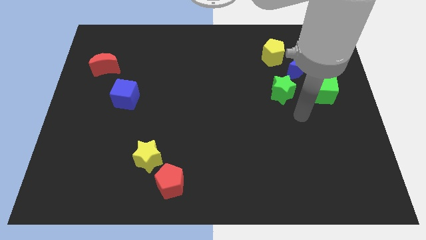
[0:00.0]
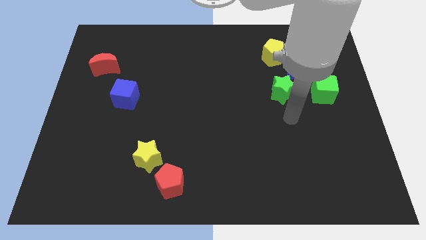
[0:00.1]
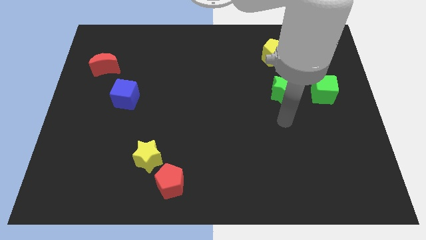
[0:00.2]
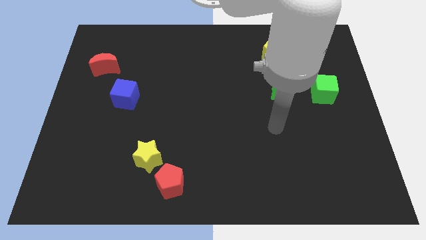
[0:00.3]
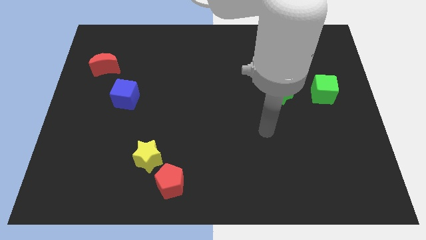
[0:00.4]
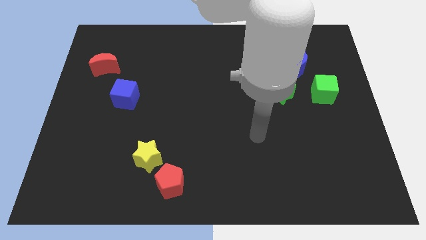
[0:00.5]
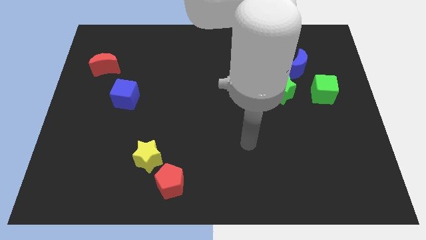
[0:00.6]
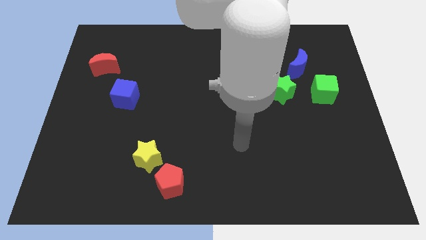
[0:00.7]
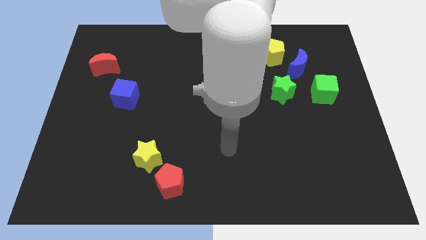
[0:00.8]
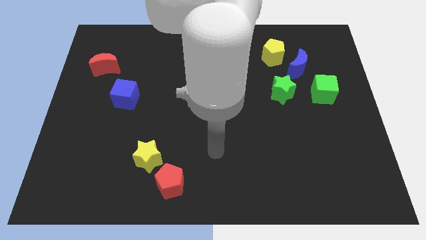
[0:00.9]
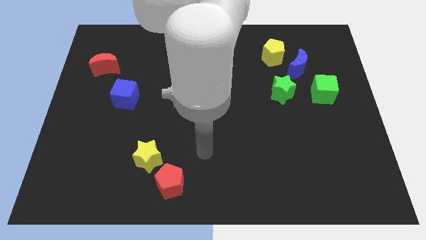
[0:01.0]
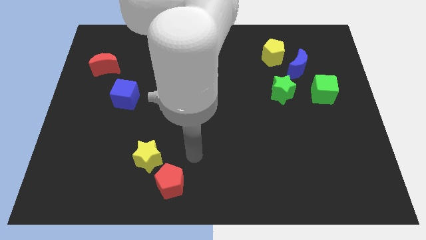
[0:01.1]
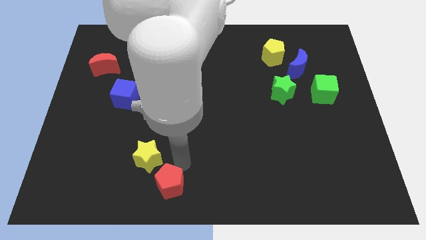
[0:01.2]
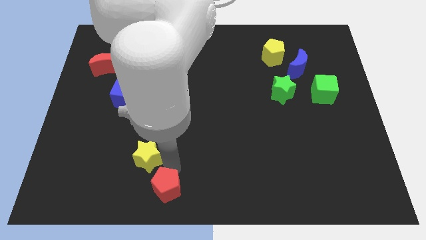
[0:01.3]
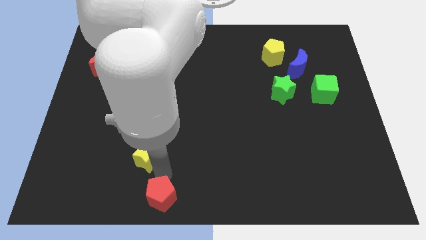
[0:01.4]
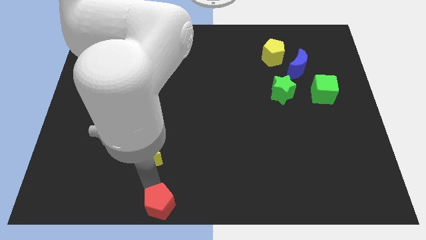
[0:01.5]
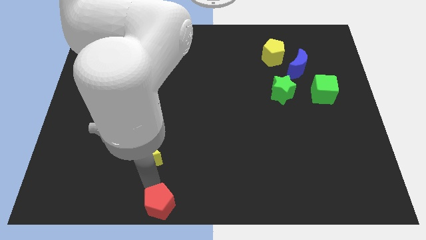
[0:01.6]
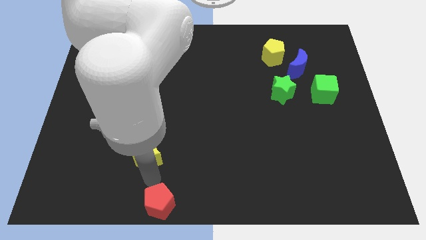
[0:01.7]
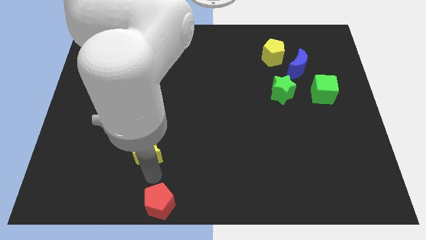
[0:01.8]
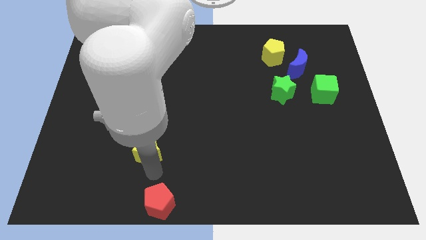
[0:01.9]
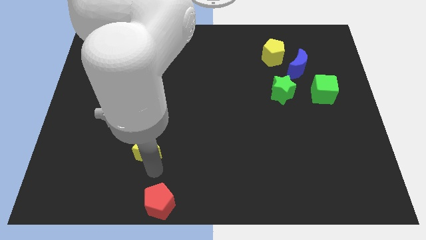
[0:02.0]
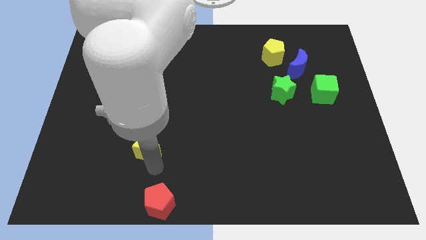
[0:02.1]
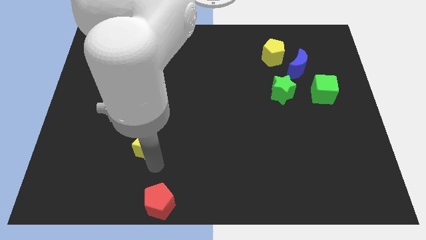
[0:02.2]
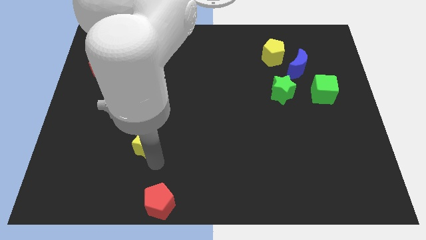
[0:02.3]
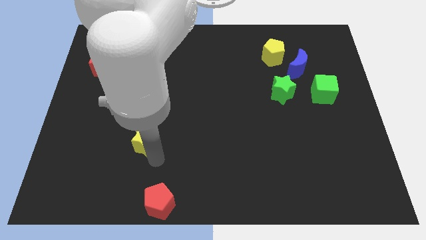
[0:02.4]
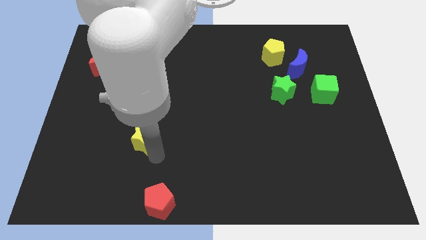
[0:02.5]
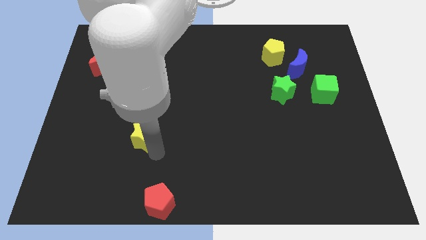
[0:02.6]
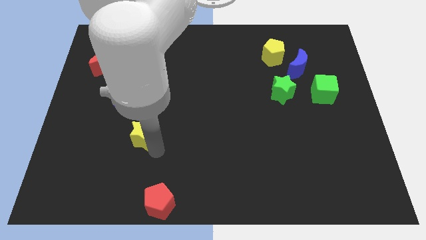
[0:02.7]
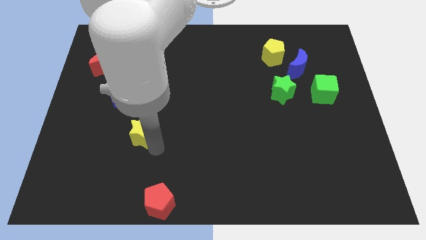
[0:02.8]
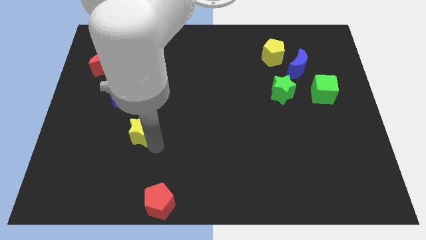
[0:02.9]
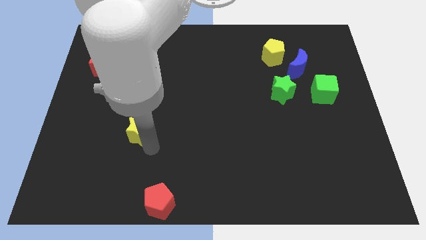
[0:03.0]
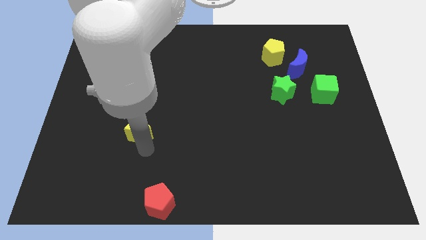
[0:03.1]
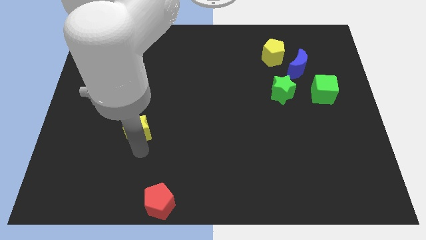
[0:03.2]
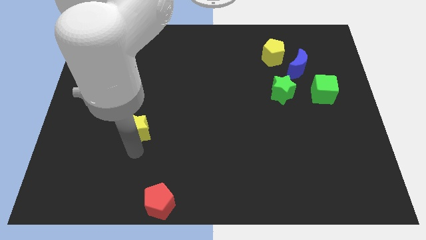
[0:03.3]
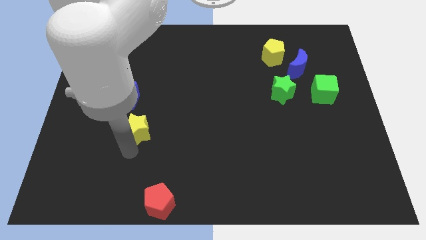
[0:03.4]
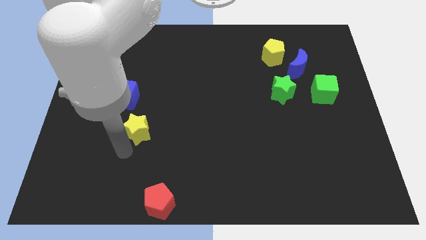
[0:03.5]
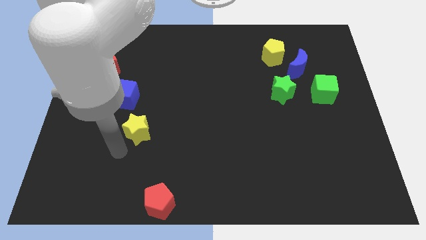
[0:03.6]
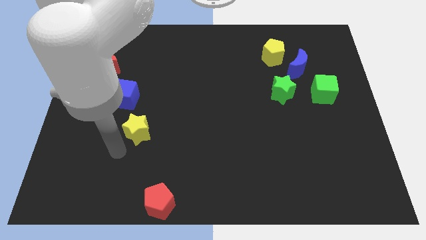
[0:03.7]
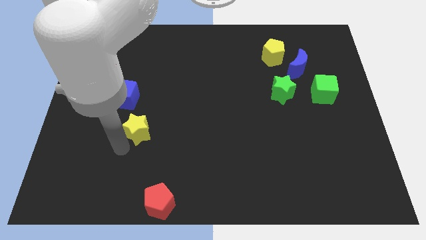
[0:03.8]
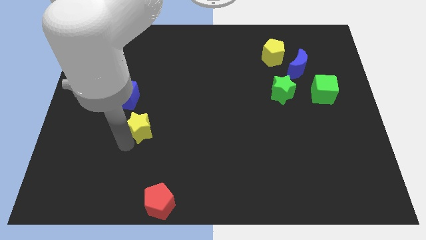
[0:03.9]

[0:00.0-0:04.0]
move the yellow star upwards somewhat

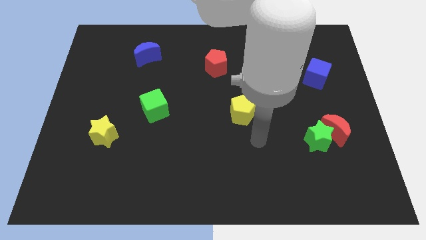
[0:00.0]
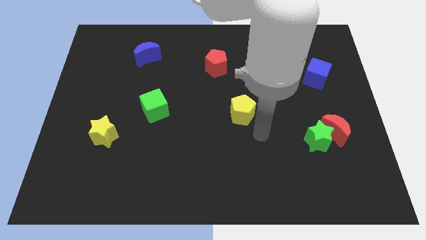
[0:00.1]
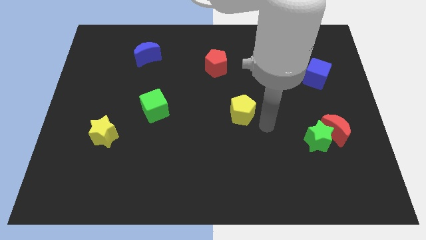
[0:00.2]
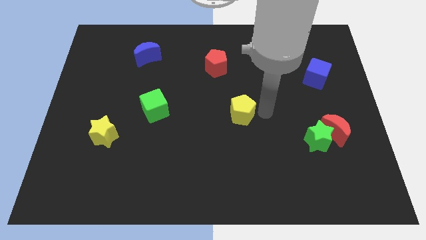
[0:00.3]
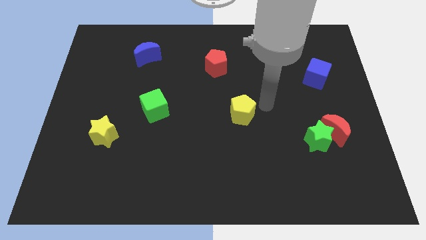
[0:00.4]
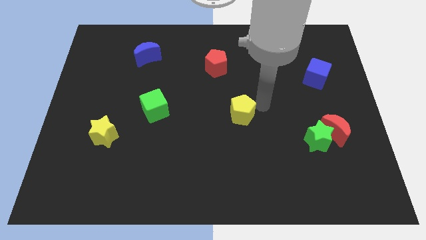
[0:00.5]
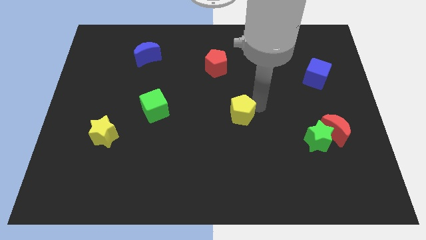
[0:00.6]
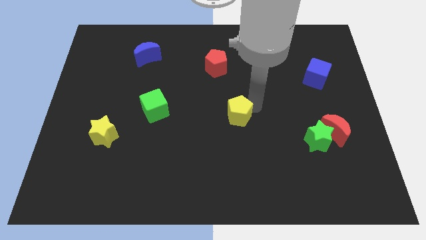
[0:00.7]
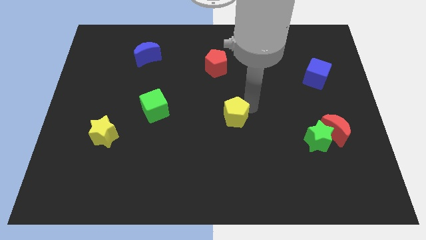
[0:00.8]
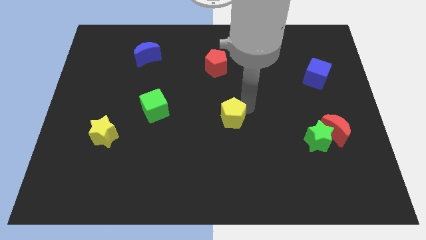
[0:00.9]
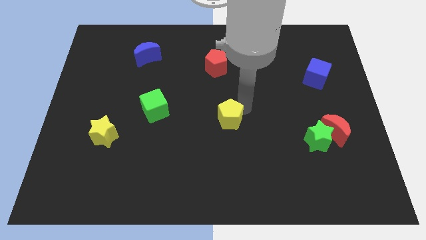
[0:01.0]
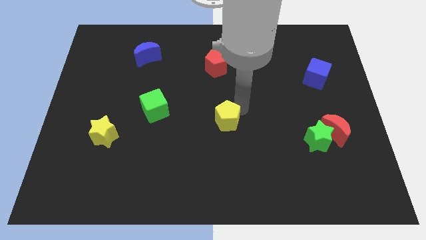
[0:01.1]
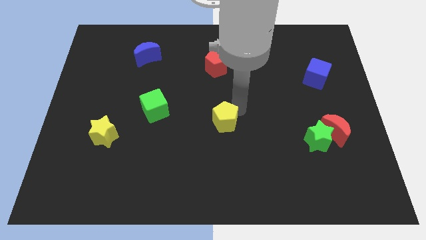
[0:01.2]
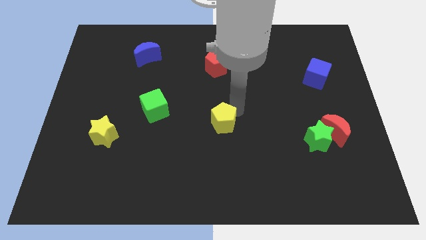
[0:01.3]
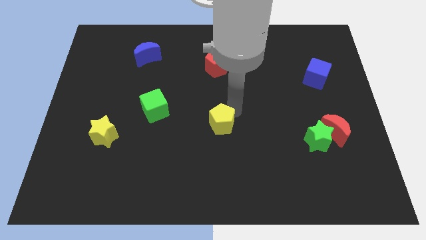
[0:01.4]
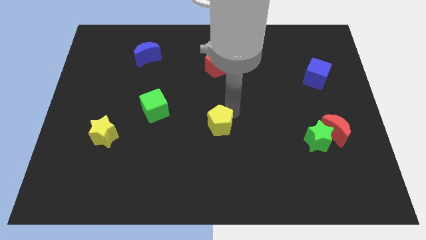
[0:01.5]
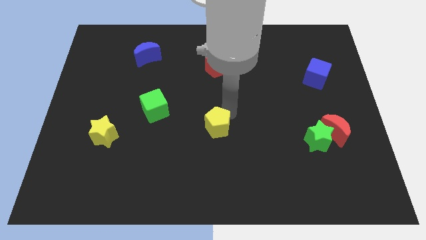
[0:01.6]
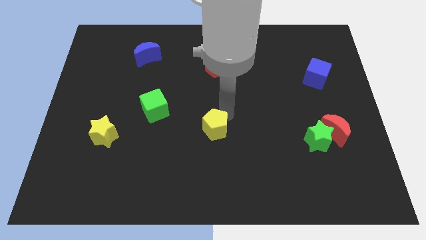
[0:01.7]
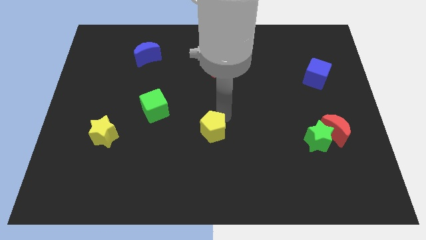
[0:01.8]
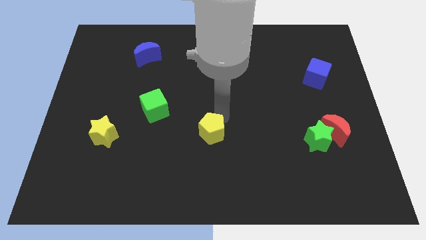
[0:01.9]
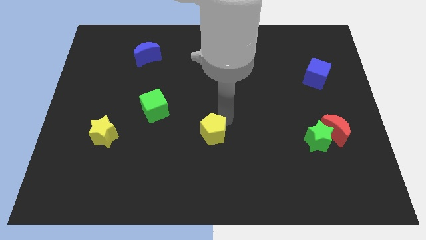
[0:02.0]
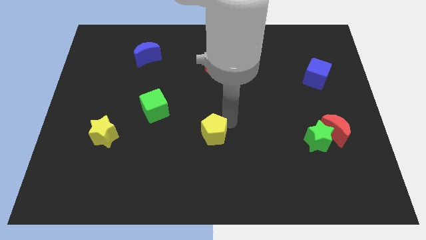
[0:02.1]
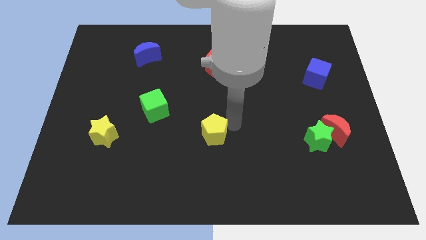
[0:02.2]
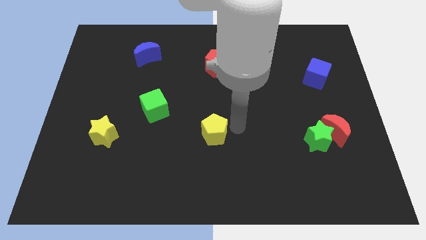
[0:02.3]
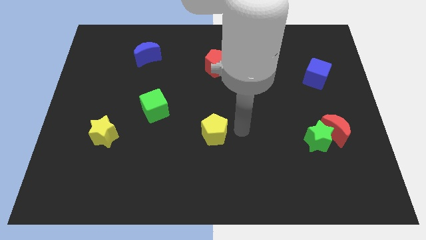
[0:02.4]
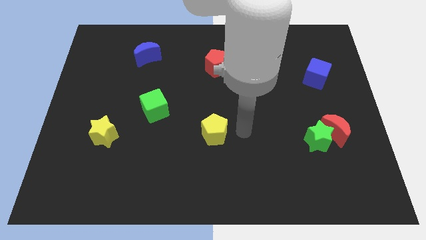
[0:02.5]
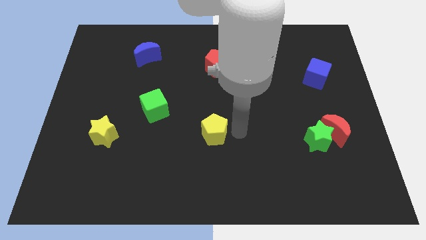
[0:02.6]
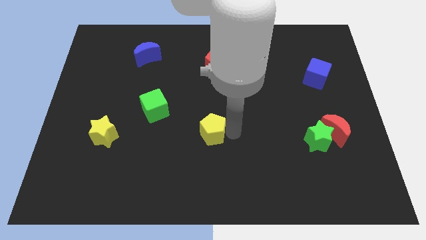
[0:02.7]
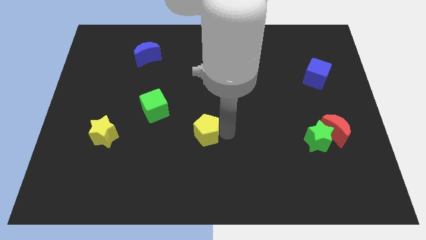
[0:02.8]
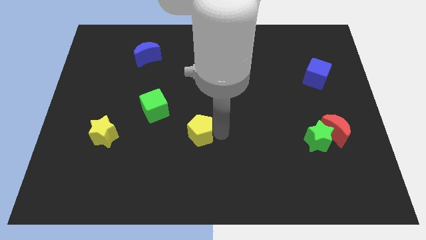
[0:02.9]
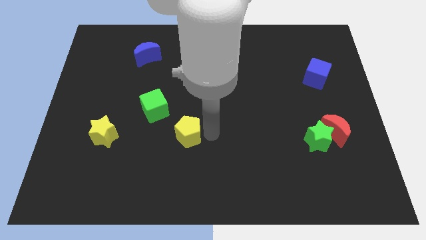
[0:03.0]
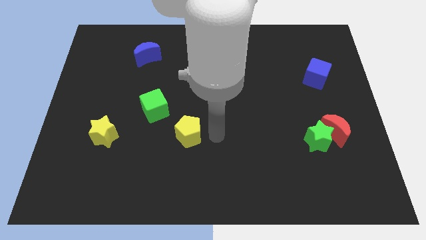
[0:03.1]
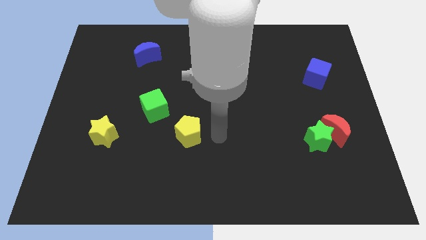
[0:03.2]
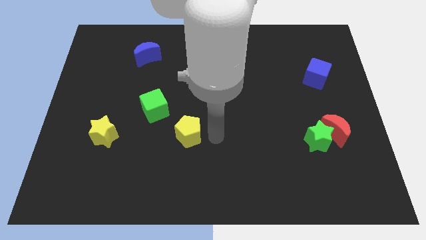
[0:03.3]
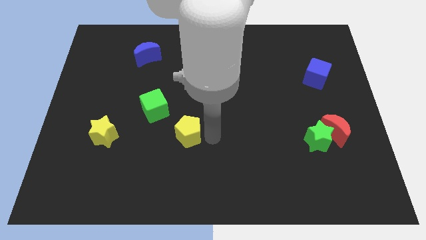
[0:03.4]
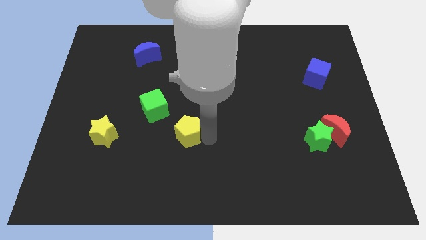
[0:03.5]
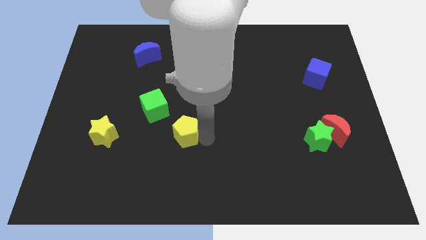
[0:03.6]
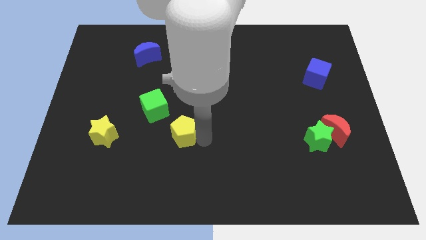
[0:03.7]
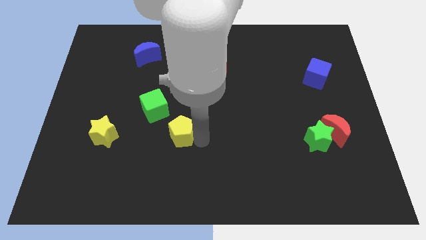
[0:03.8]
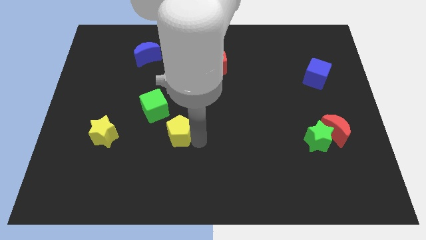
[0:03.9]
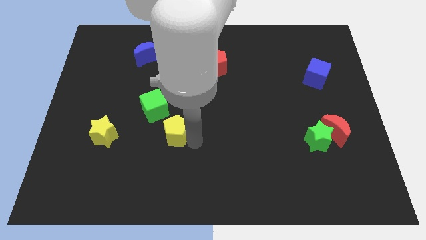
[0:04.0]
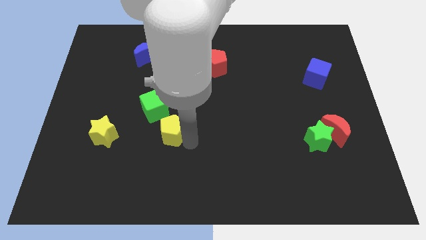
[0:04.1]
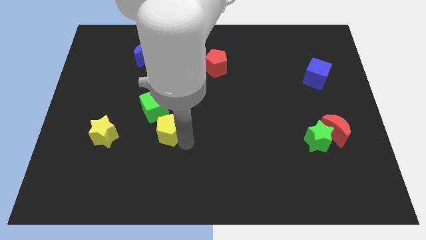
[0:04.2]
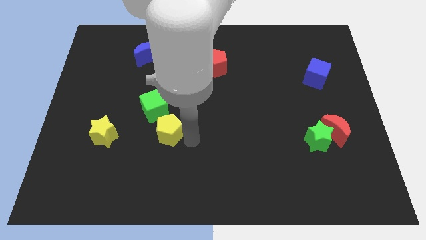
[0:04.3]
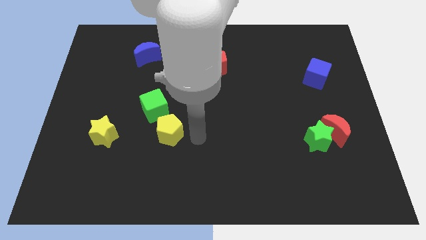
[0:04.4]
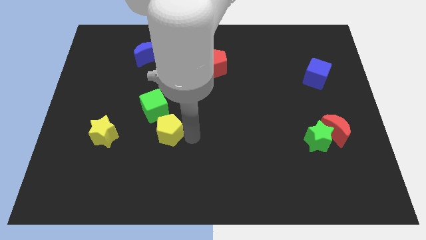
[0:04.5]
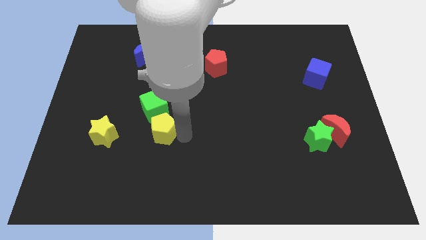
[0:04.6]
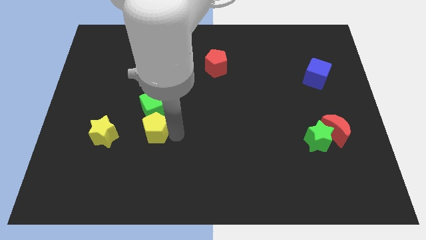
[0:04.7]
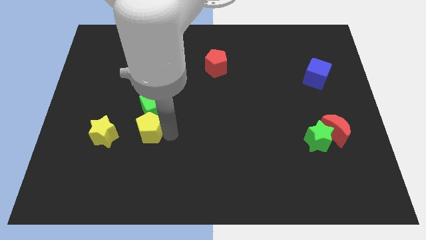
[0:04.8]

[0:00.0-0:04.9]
move the yellow pentagon to the left
